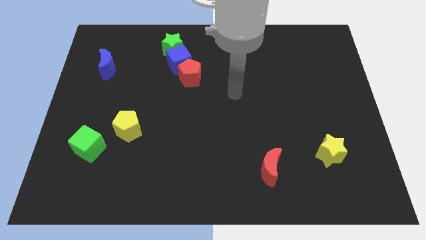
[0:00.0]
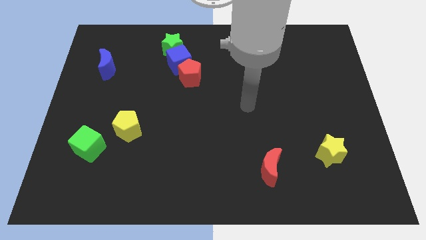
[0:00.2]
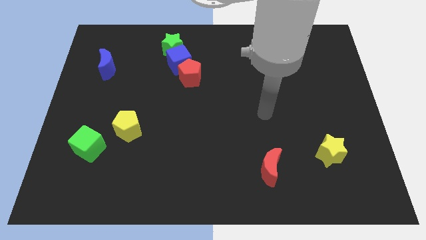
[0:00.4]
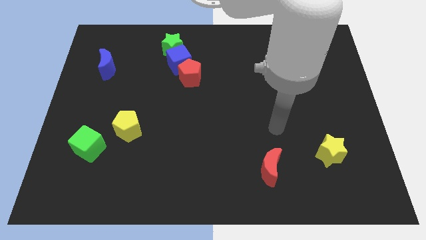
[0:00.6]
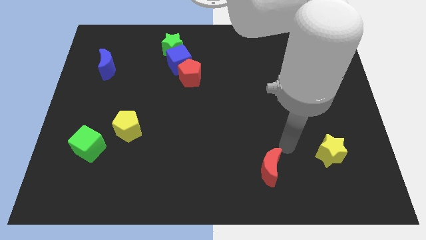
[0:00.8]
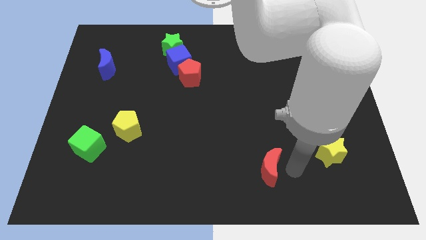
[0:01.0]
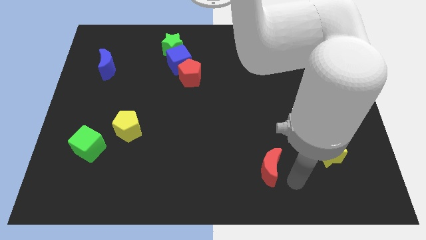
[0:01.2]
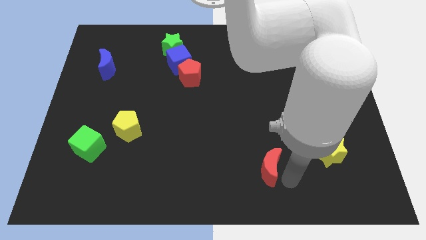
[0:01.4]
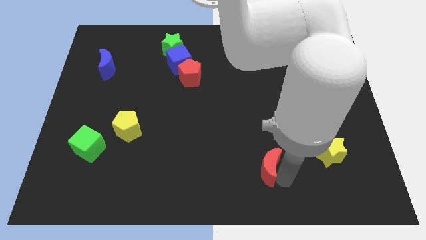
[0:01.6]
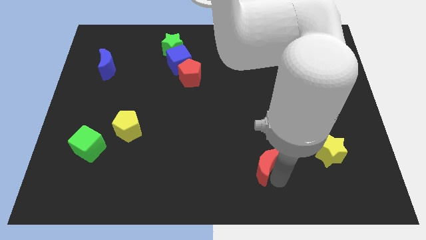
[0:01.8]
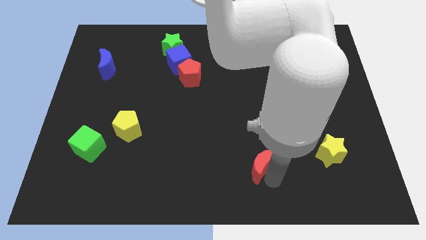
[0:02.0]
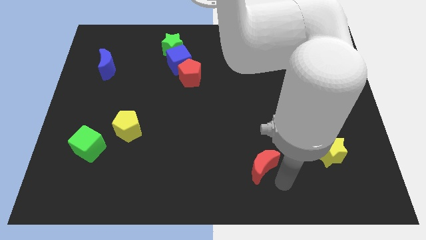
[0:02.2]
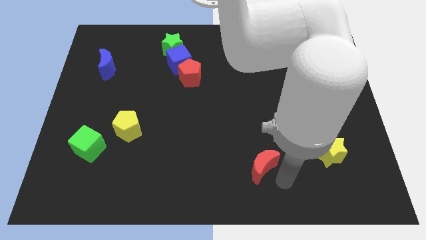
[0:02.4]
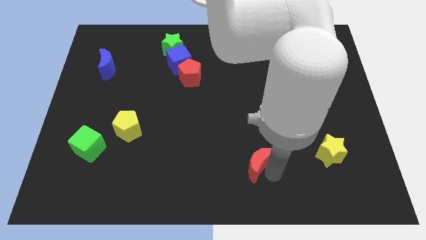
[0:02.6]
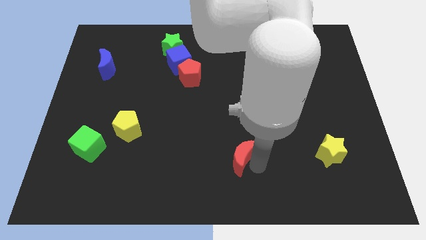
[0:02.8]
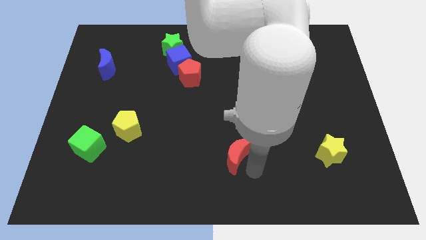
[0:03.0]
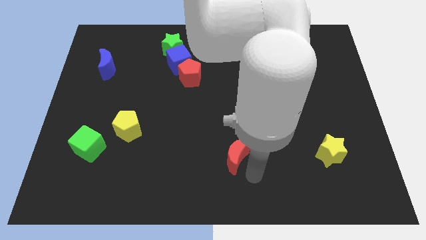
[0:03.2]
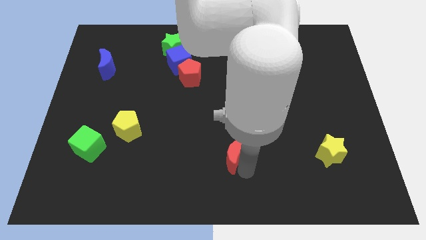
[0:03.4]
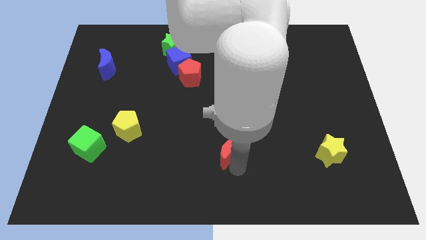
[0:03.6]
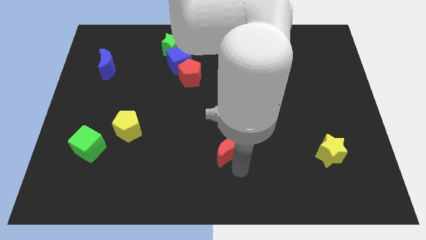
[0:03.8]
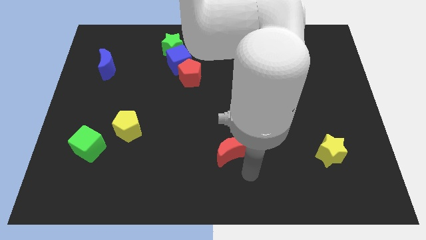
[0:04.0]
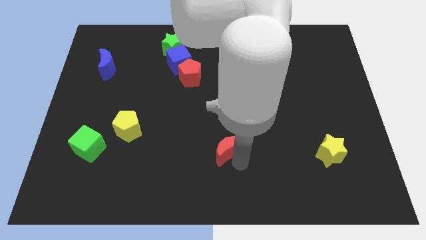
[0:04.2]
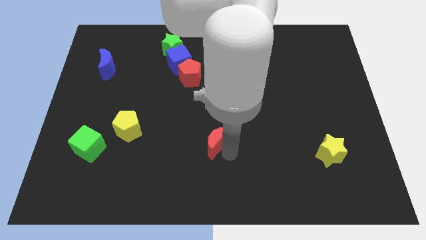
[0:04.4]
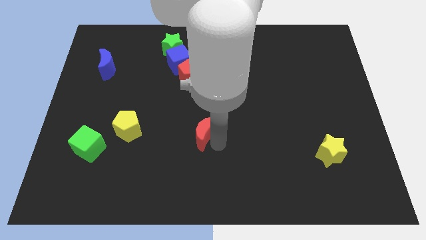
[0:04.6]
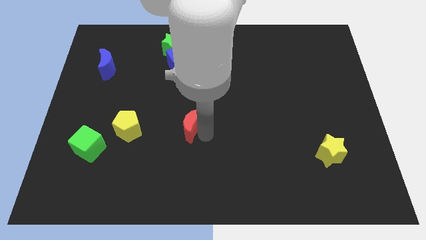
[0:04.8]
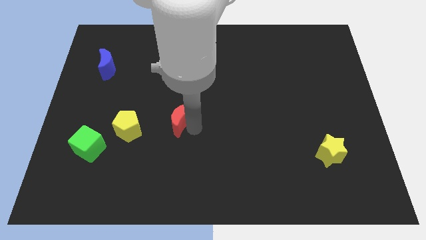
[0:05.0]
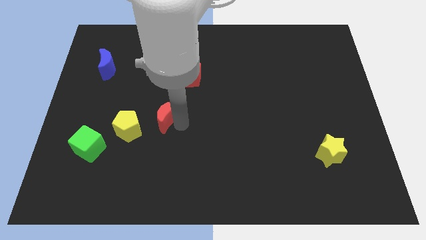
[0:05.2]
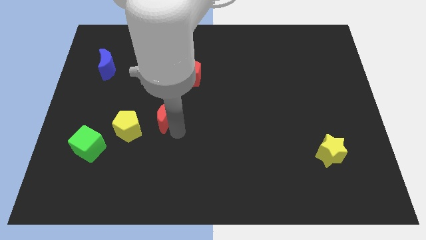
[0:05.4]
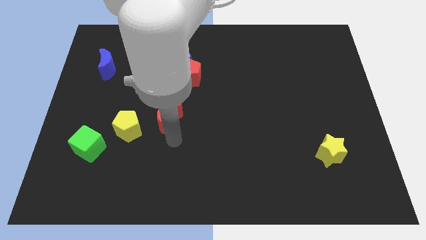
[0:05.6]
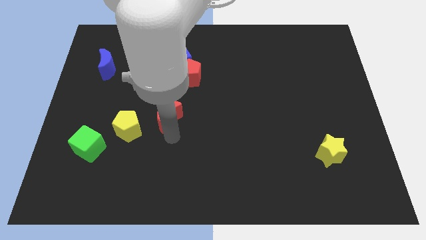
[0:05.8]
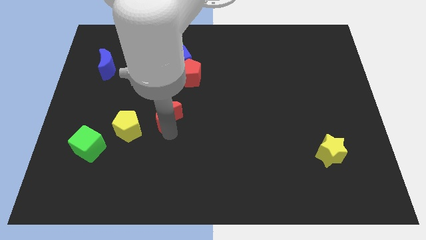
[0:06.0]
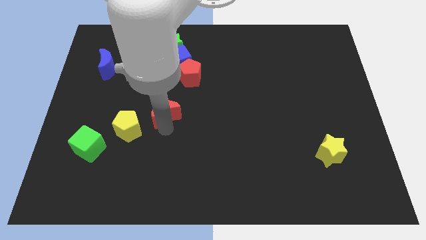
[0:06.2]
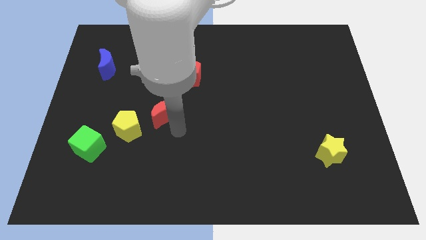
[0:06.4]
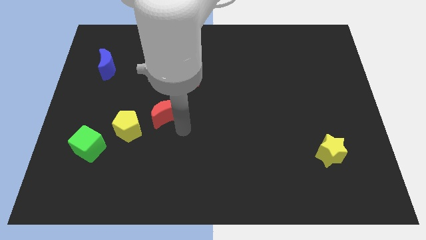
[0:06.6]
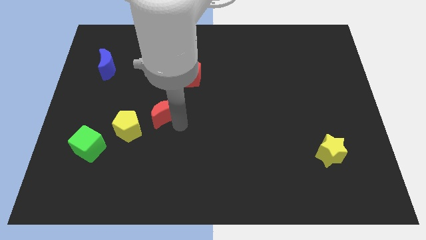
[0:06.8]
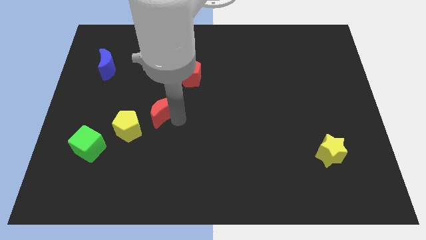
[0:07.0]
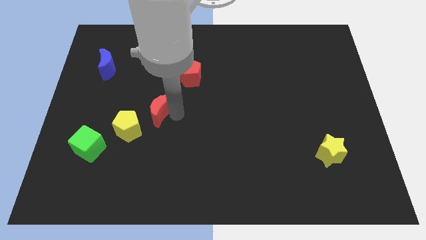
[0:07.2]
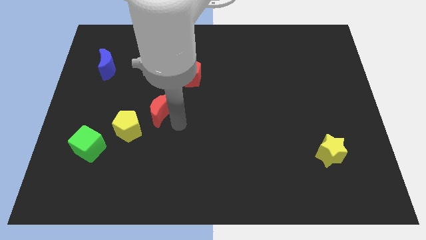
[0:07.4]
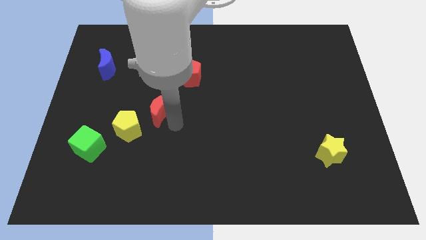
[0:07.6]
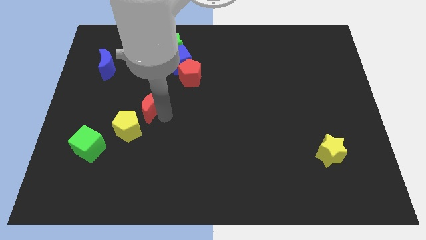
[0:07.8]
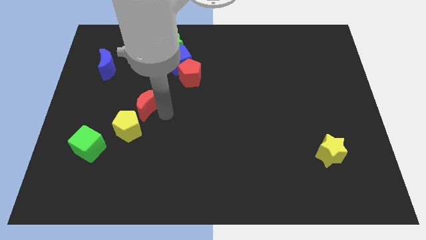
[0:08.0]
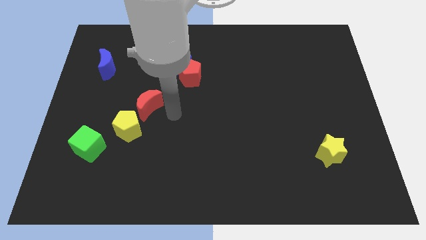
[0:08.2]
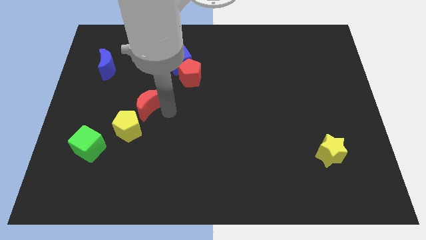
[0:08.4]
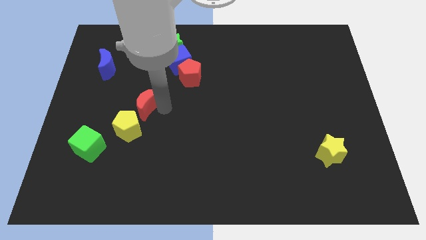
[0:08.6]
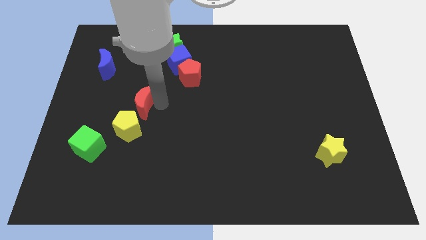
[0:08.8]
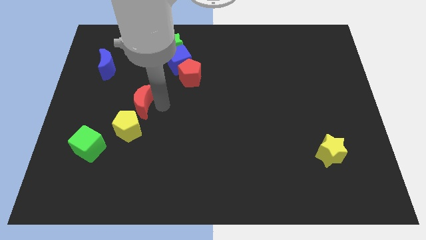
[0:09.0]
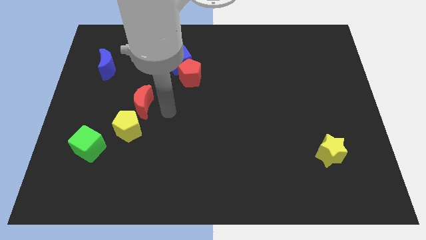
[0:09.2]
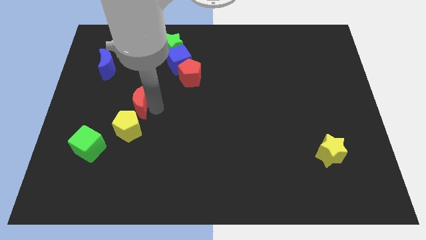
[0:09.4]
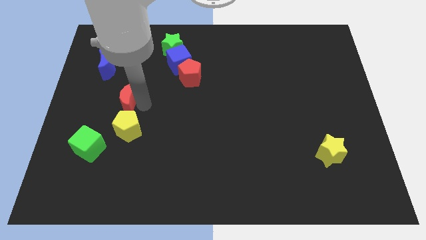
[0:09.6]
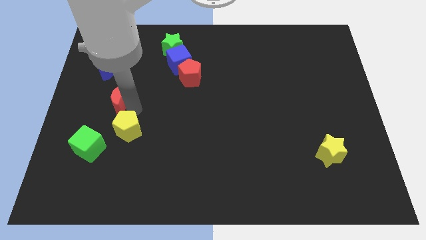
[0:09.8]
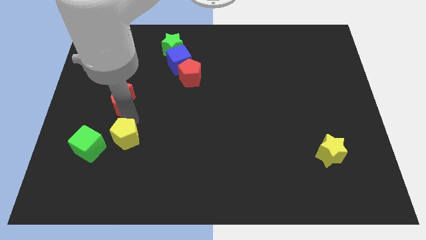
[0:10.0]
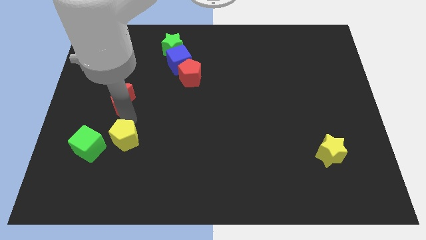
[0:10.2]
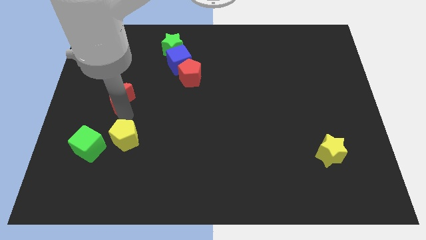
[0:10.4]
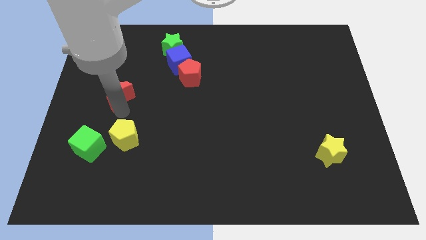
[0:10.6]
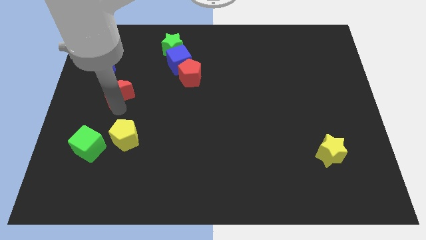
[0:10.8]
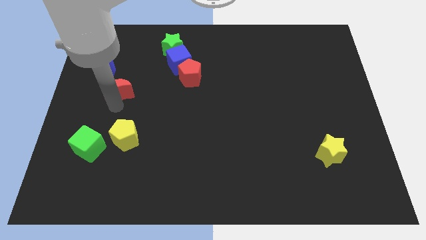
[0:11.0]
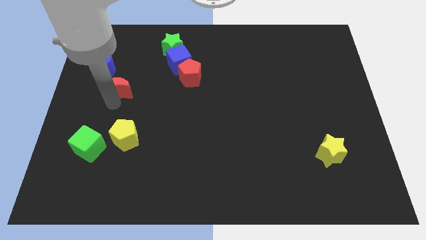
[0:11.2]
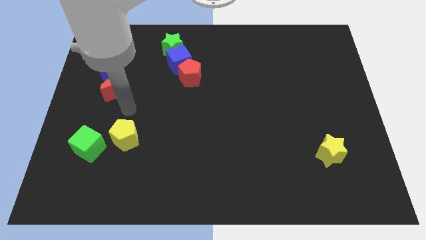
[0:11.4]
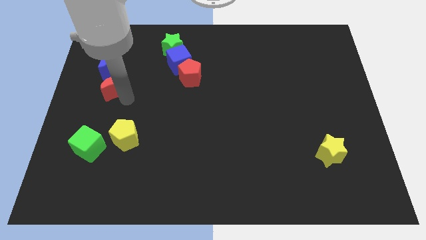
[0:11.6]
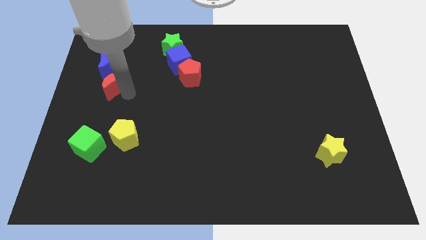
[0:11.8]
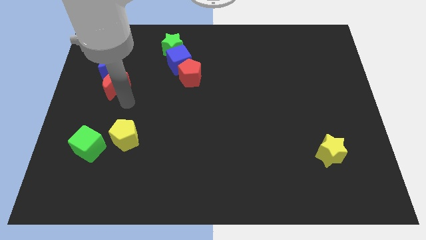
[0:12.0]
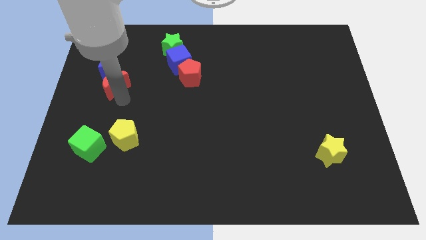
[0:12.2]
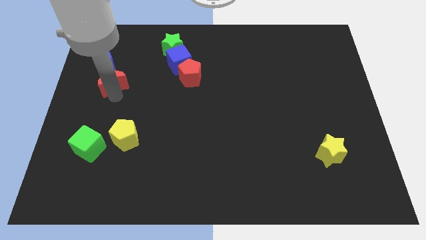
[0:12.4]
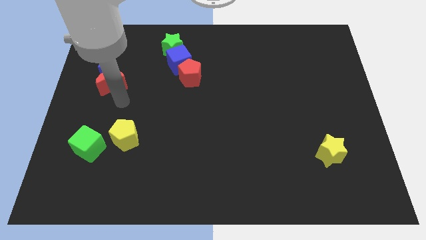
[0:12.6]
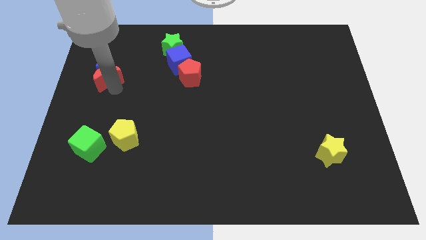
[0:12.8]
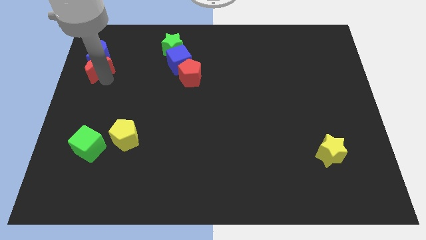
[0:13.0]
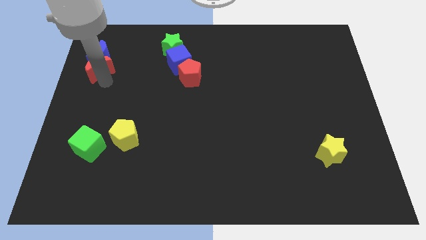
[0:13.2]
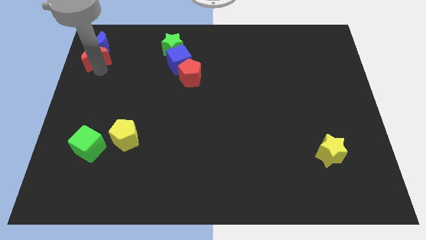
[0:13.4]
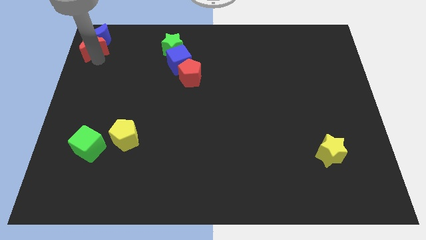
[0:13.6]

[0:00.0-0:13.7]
push the red moon to the top left of the board
